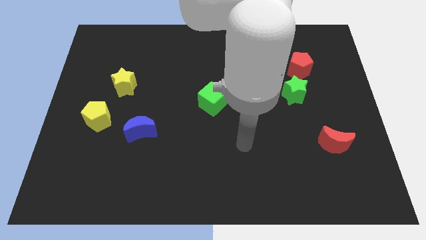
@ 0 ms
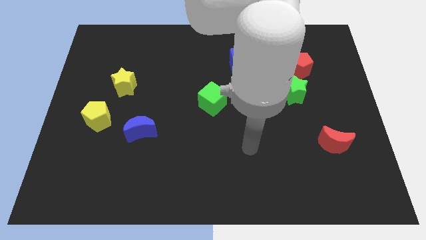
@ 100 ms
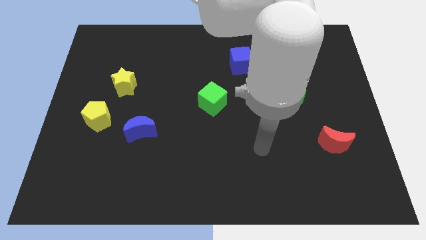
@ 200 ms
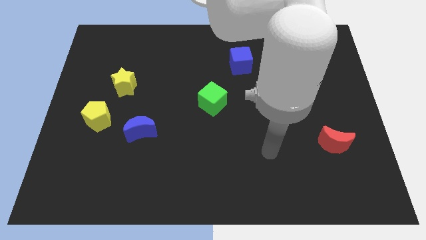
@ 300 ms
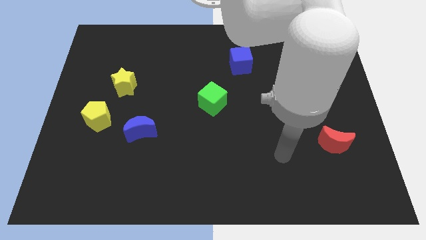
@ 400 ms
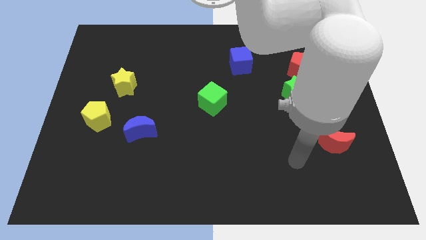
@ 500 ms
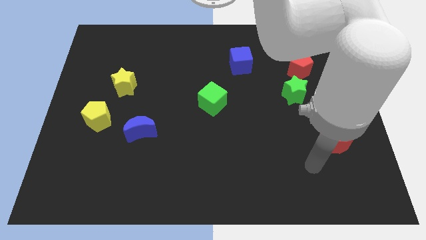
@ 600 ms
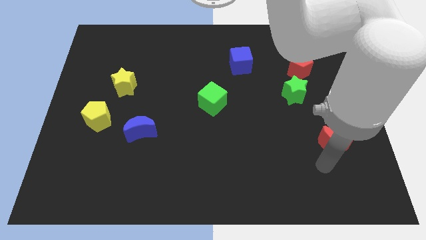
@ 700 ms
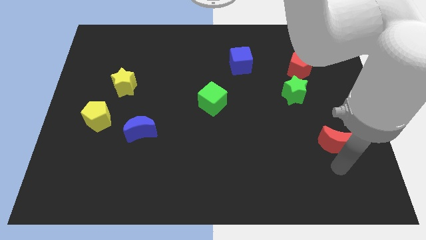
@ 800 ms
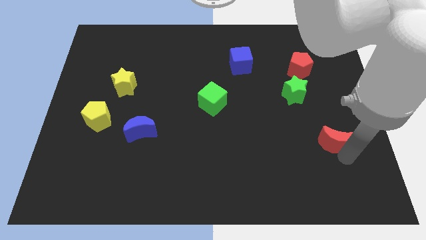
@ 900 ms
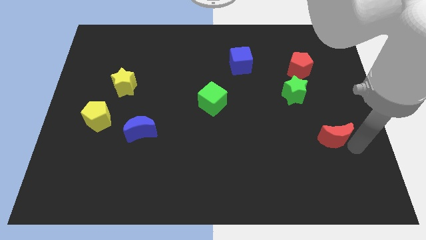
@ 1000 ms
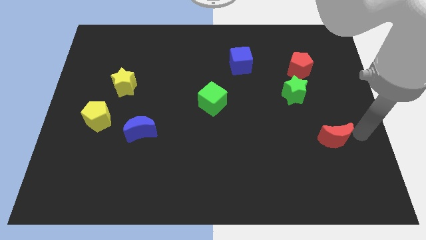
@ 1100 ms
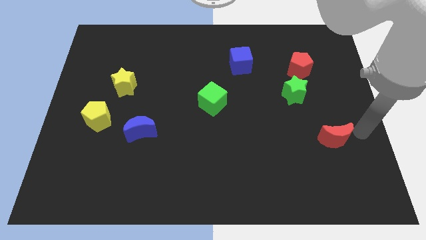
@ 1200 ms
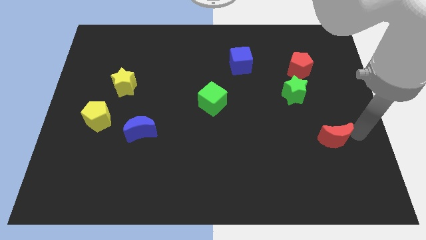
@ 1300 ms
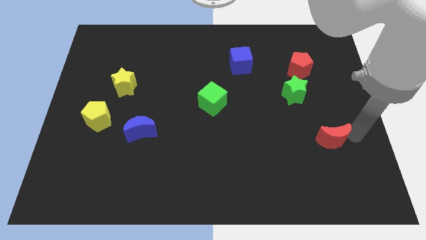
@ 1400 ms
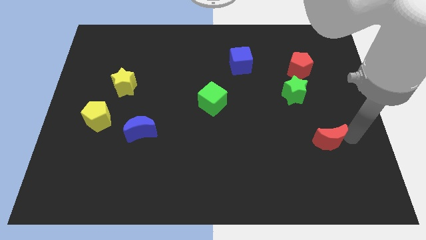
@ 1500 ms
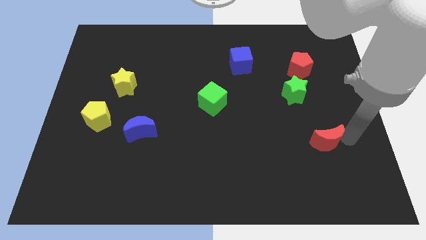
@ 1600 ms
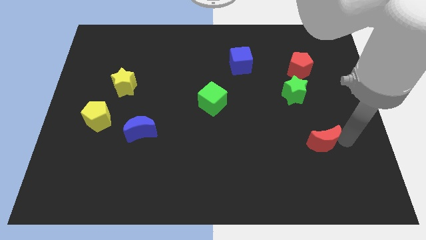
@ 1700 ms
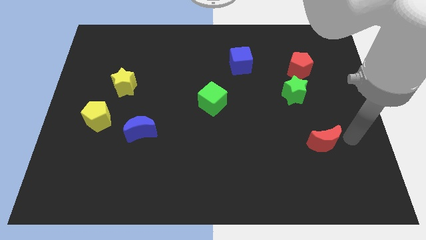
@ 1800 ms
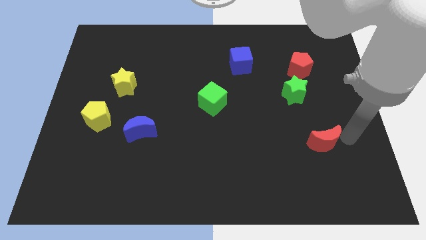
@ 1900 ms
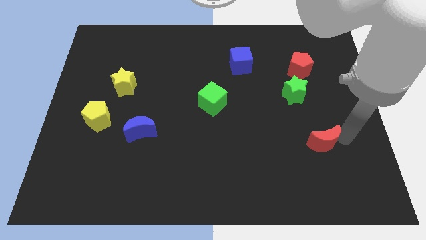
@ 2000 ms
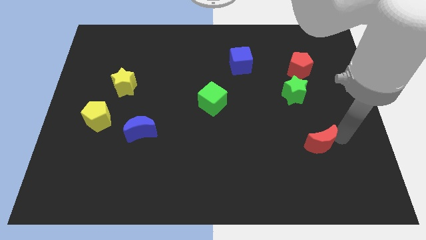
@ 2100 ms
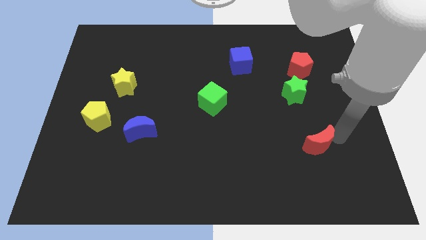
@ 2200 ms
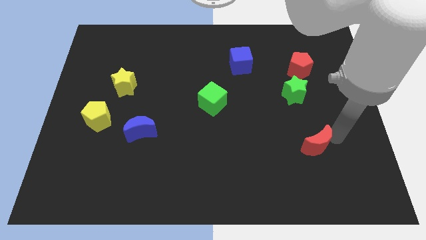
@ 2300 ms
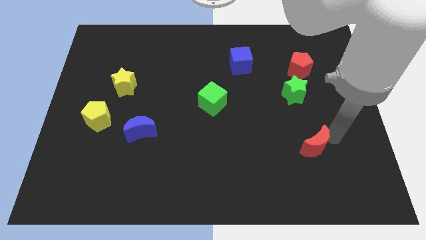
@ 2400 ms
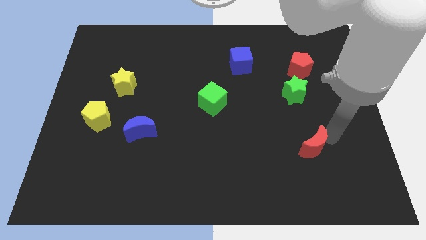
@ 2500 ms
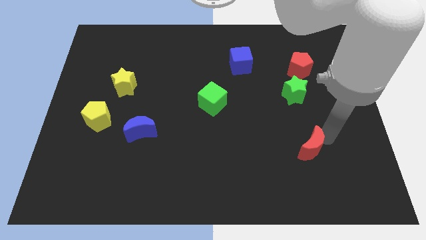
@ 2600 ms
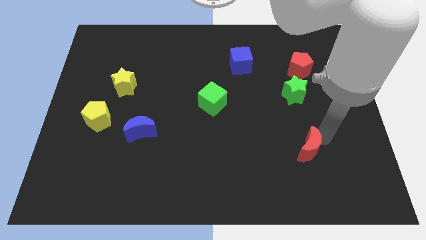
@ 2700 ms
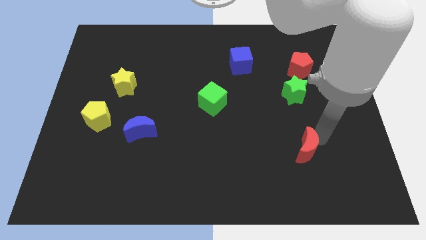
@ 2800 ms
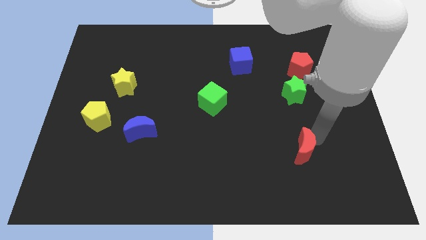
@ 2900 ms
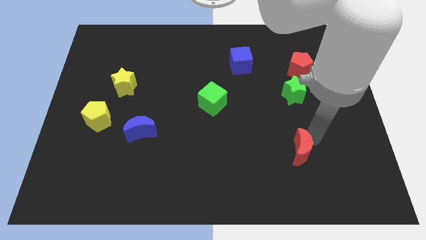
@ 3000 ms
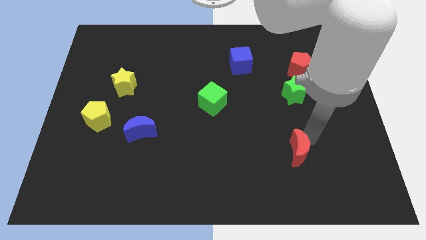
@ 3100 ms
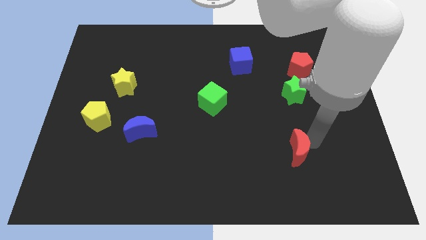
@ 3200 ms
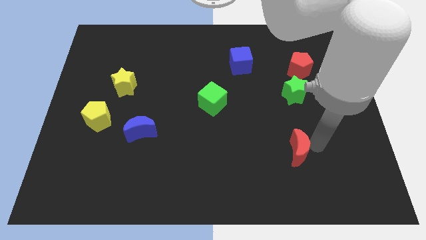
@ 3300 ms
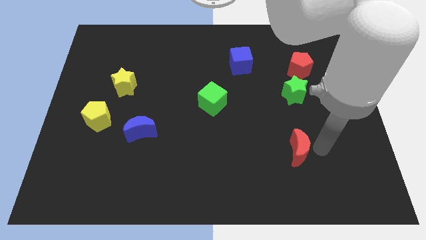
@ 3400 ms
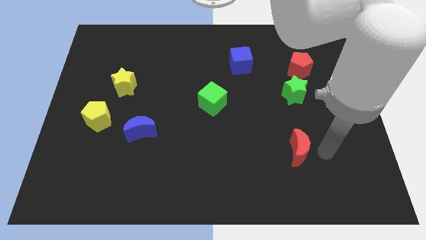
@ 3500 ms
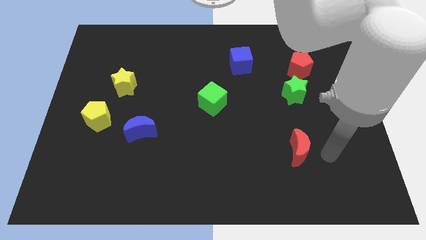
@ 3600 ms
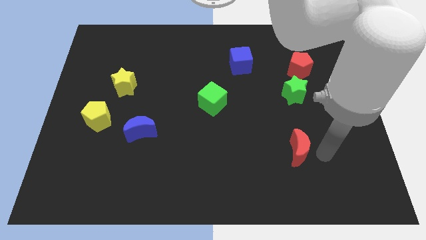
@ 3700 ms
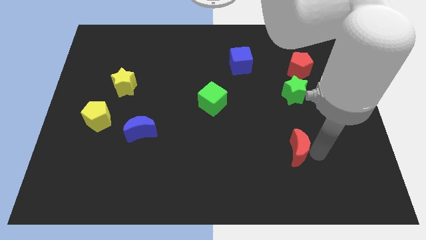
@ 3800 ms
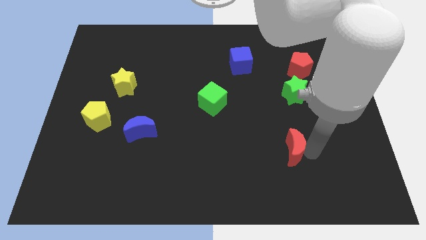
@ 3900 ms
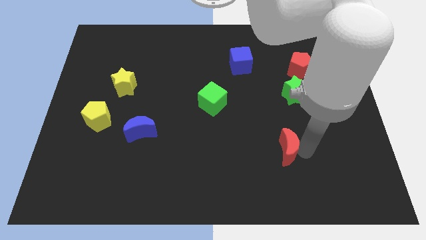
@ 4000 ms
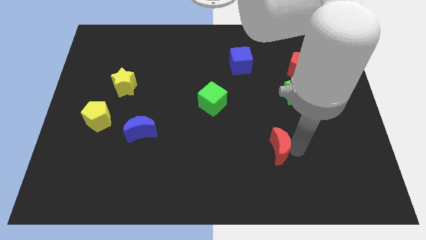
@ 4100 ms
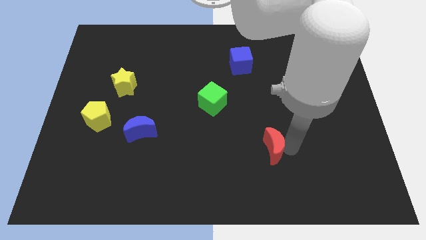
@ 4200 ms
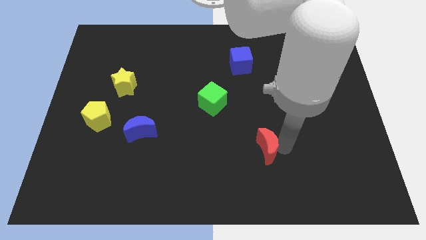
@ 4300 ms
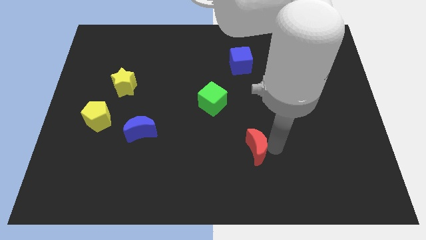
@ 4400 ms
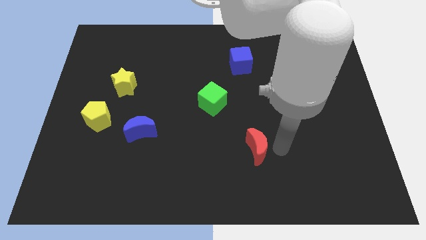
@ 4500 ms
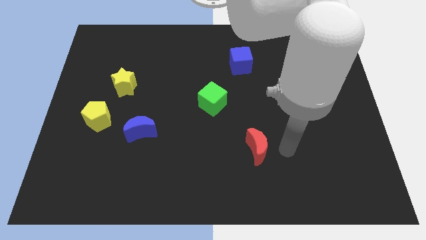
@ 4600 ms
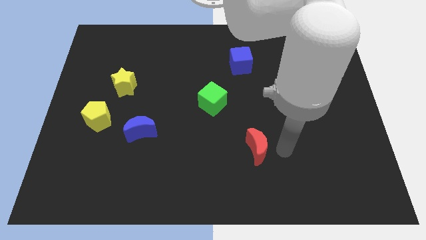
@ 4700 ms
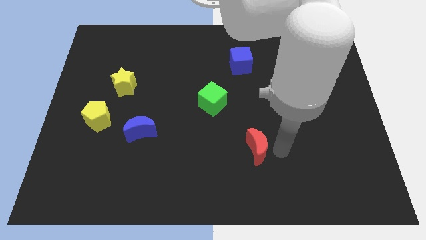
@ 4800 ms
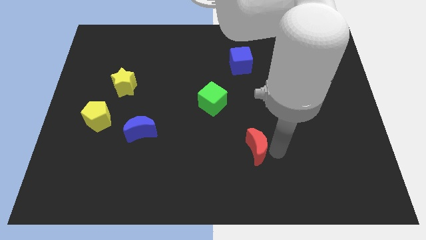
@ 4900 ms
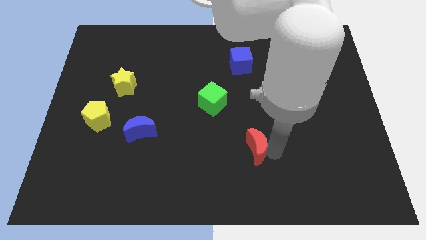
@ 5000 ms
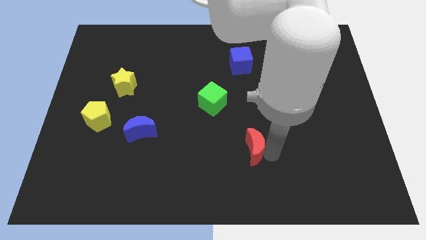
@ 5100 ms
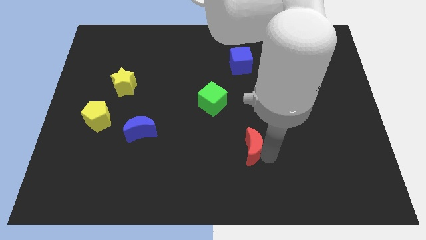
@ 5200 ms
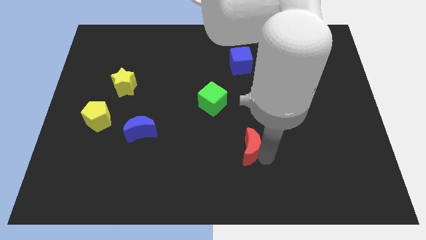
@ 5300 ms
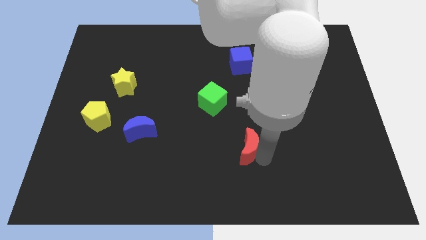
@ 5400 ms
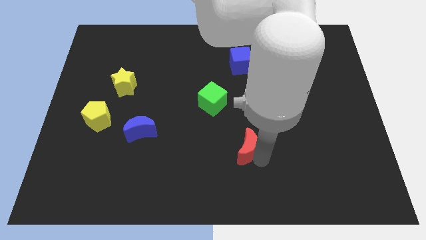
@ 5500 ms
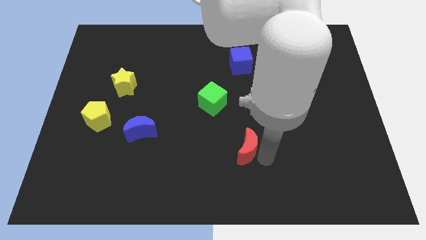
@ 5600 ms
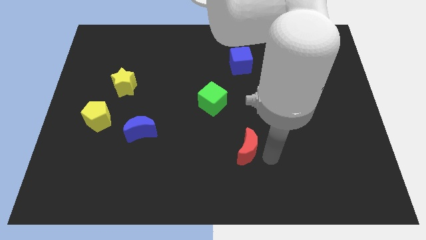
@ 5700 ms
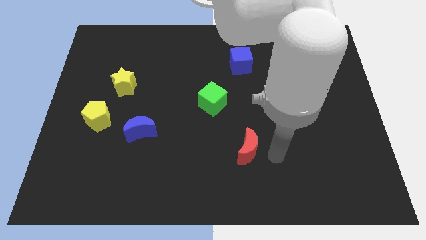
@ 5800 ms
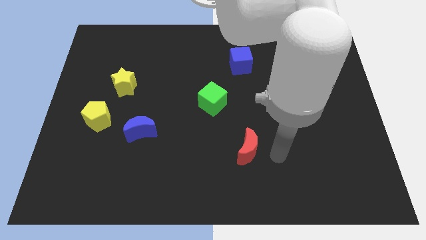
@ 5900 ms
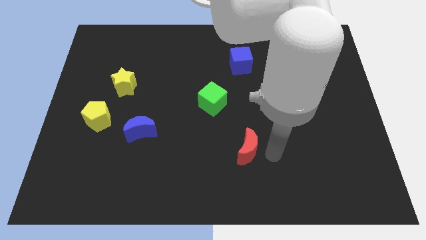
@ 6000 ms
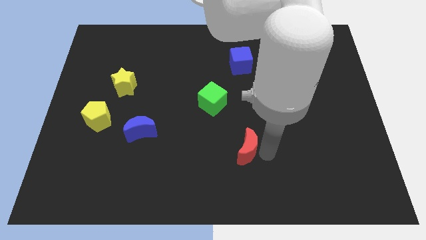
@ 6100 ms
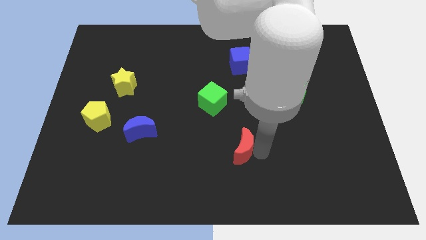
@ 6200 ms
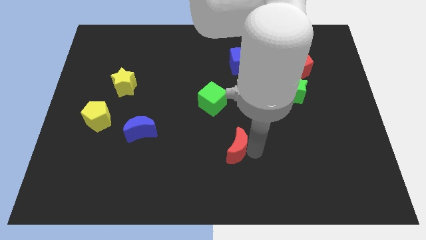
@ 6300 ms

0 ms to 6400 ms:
move the red moon to the left

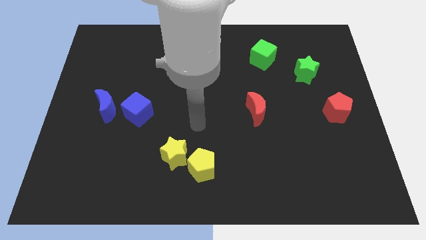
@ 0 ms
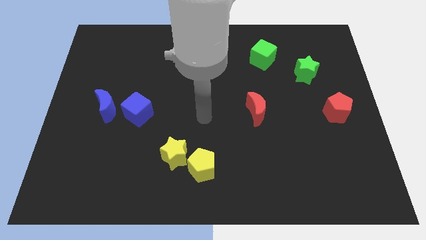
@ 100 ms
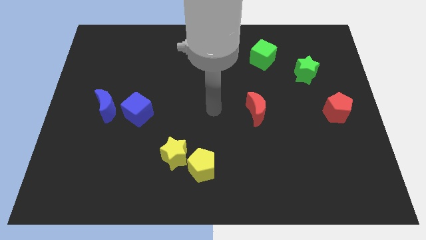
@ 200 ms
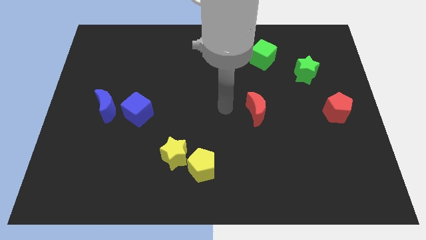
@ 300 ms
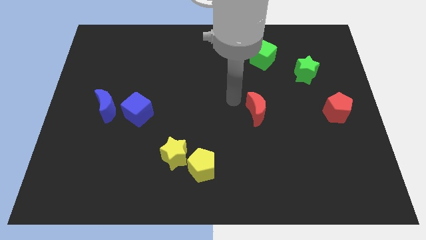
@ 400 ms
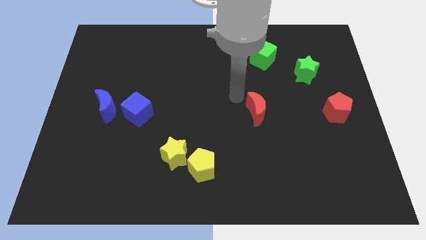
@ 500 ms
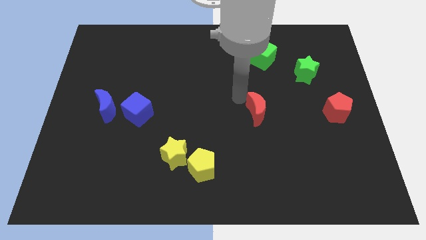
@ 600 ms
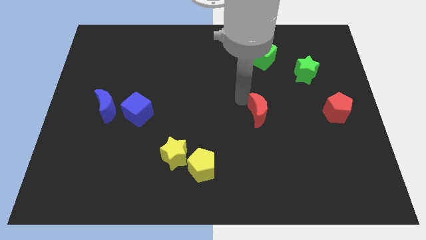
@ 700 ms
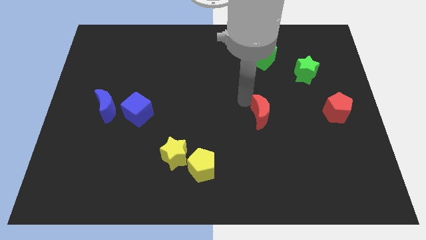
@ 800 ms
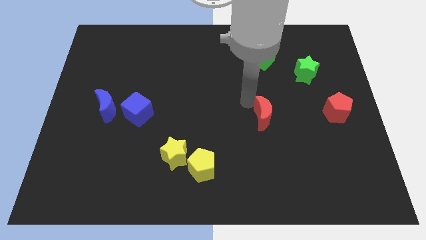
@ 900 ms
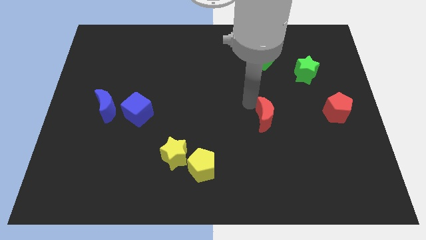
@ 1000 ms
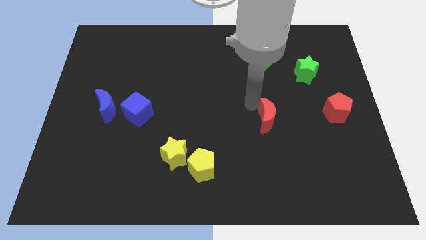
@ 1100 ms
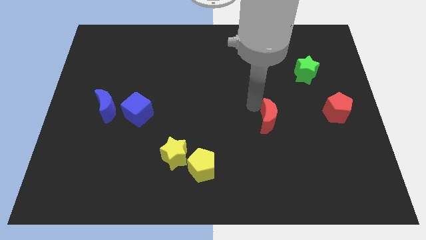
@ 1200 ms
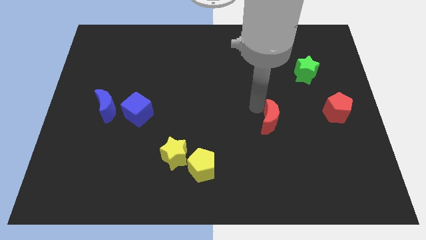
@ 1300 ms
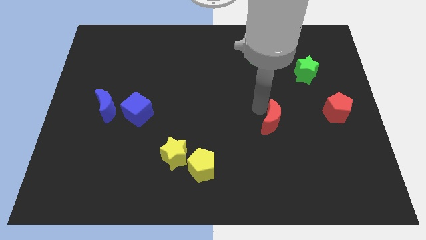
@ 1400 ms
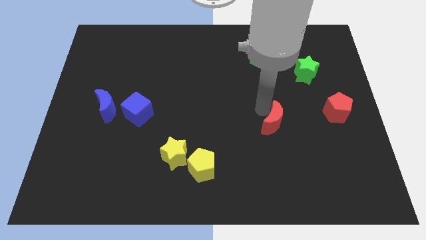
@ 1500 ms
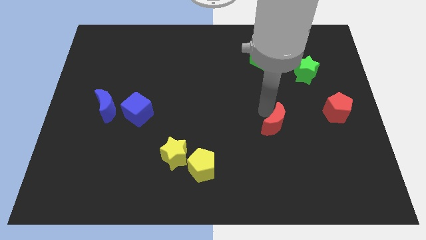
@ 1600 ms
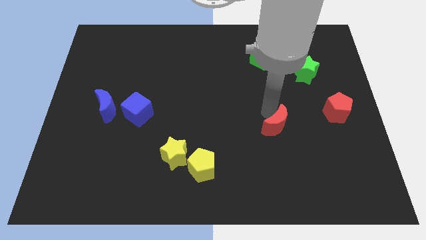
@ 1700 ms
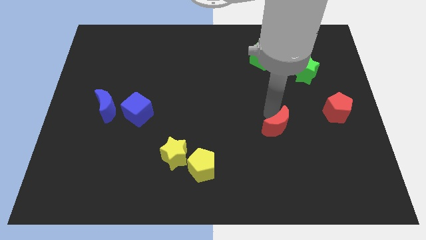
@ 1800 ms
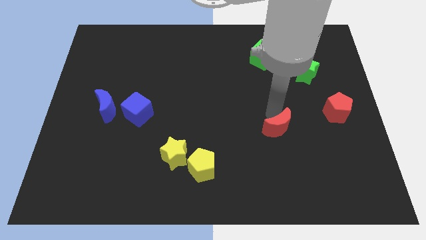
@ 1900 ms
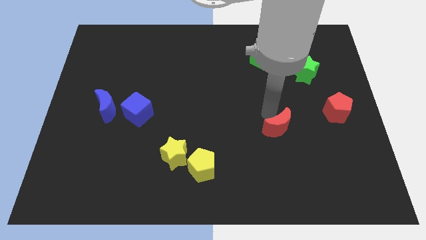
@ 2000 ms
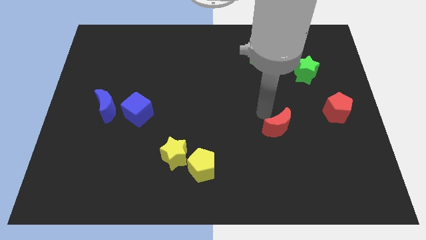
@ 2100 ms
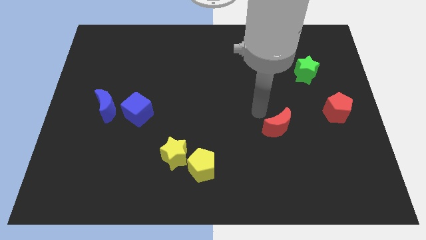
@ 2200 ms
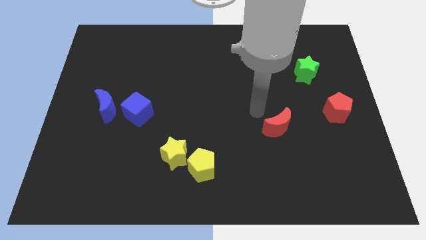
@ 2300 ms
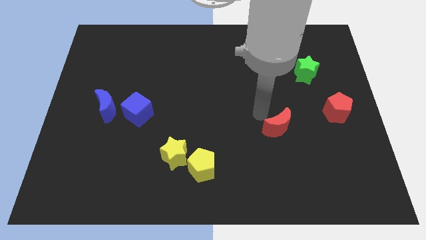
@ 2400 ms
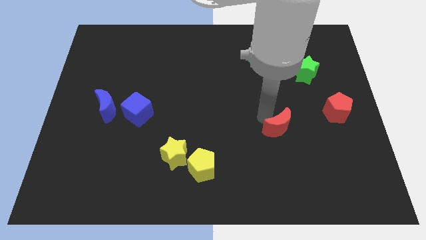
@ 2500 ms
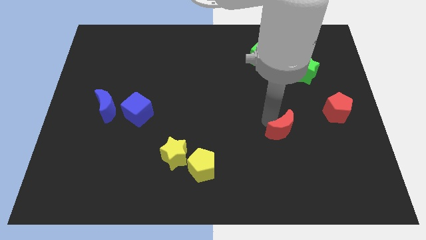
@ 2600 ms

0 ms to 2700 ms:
slightly push the red moon downwards and to the right diagonally
